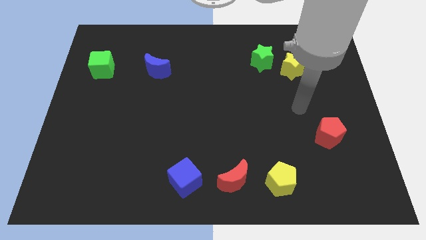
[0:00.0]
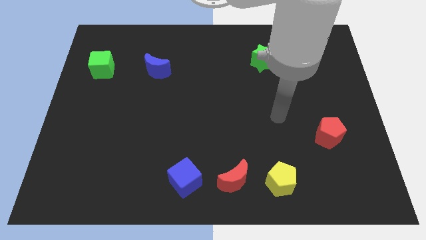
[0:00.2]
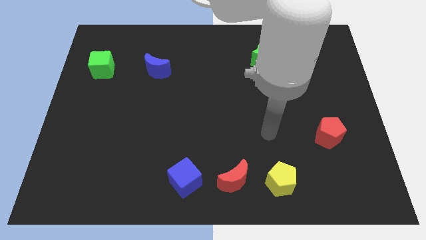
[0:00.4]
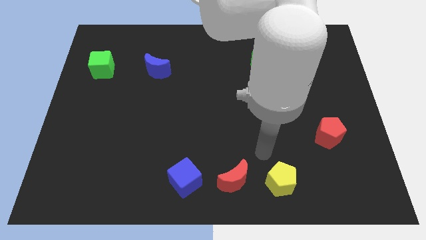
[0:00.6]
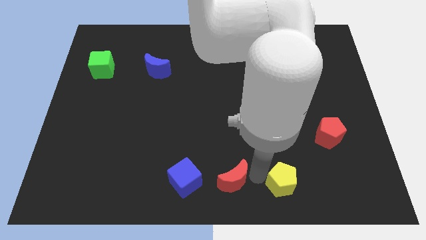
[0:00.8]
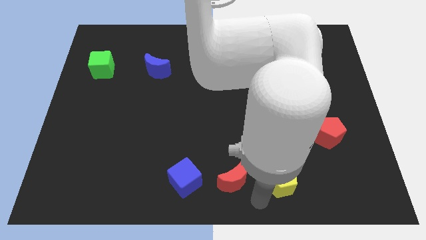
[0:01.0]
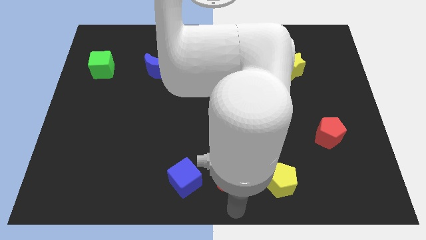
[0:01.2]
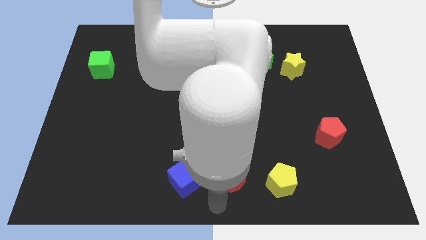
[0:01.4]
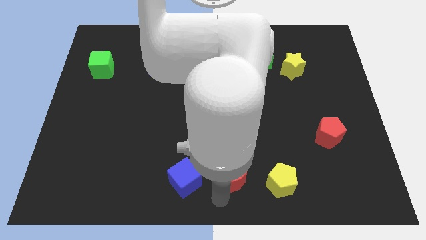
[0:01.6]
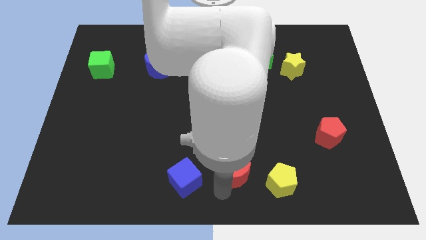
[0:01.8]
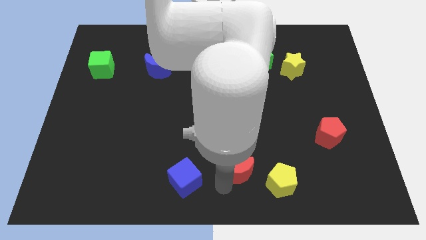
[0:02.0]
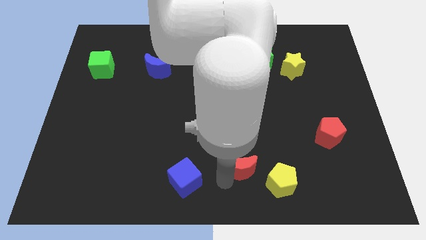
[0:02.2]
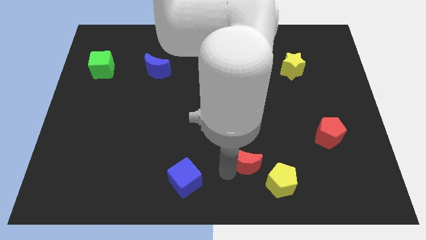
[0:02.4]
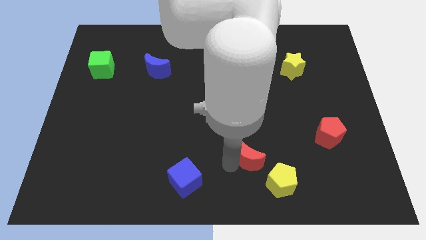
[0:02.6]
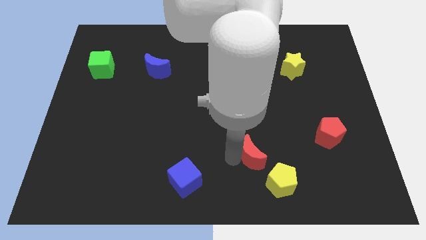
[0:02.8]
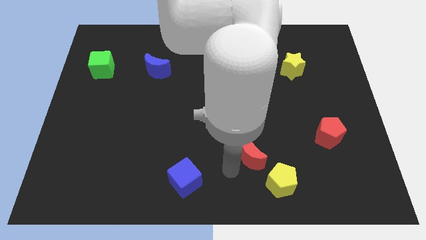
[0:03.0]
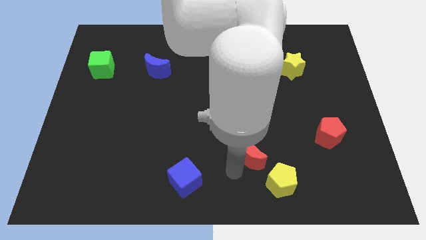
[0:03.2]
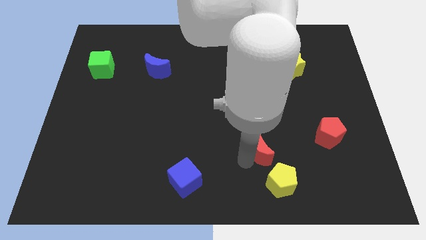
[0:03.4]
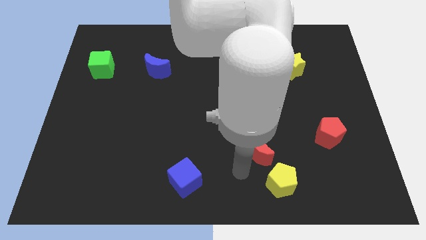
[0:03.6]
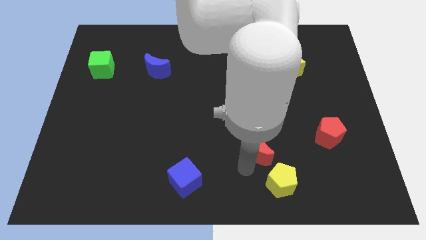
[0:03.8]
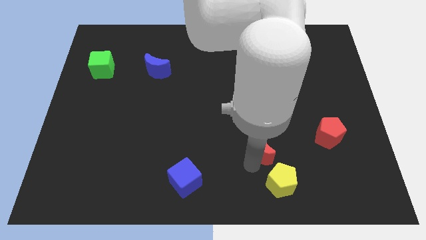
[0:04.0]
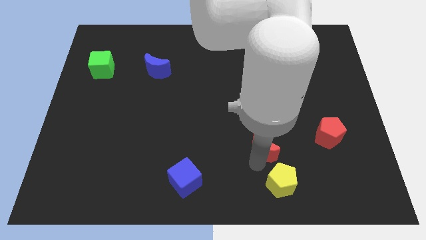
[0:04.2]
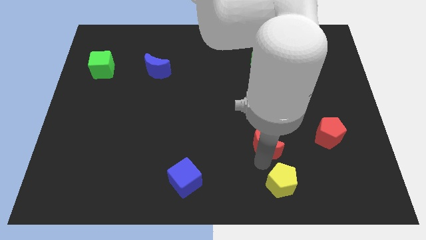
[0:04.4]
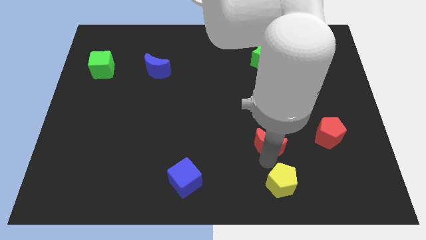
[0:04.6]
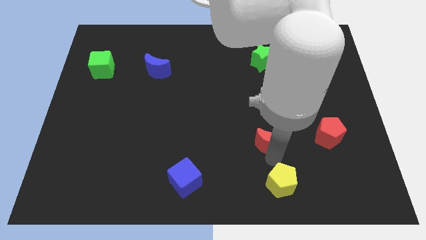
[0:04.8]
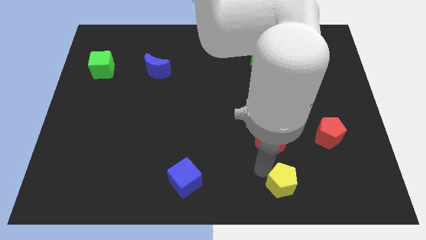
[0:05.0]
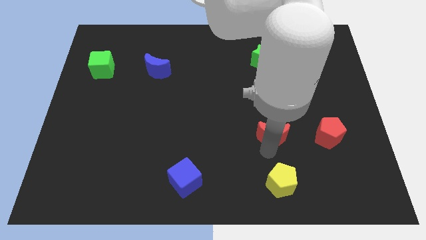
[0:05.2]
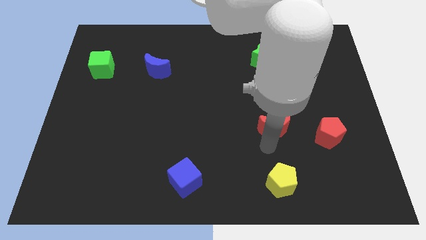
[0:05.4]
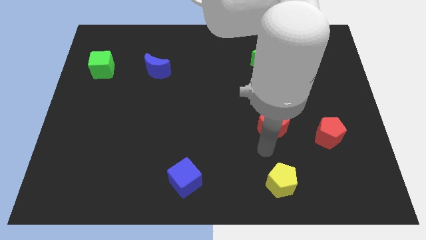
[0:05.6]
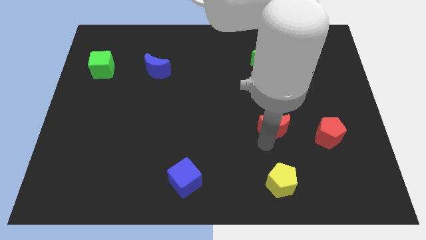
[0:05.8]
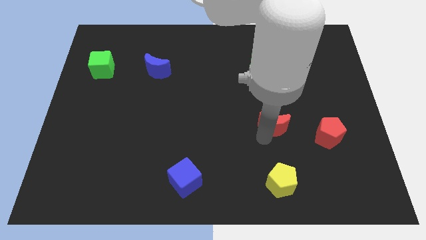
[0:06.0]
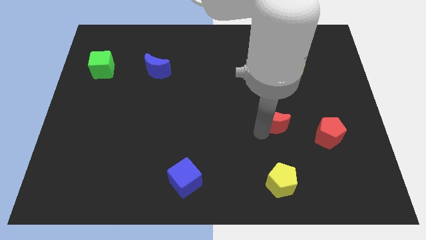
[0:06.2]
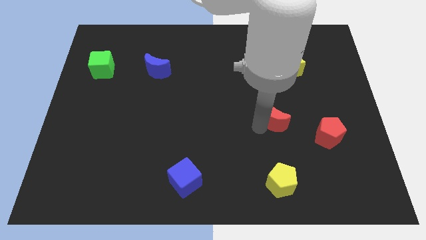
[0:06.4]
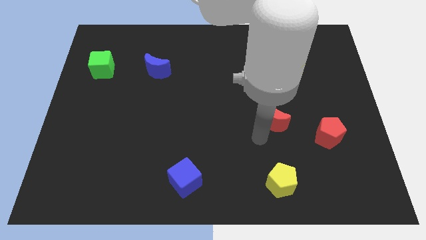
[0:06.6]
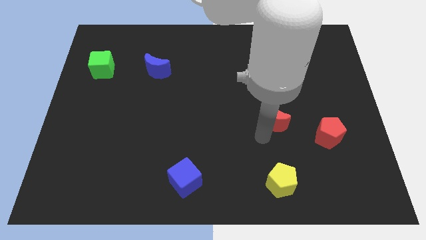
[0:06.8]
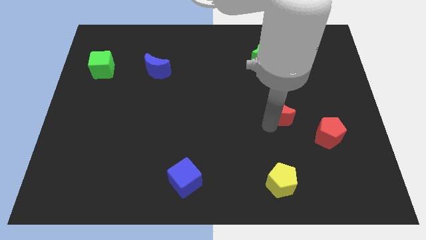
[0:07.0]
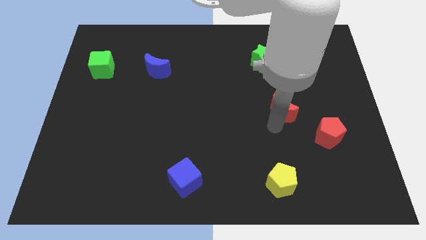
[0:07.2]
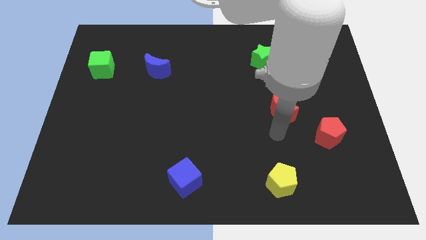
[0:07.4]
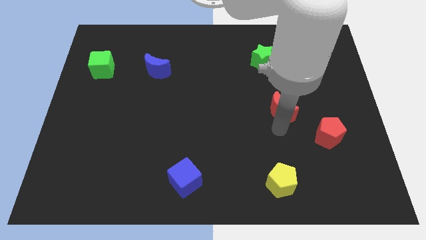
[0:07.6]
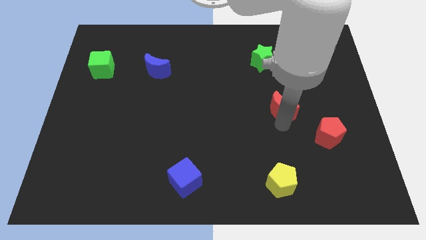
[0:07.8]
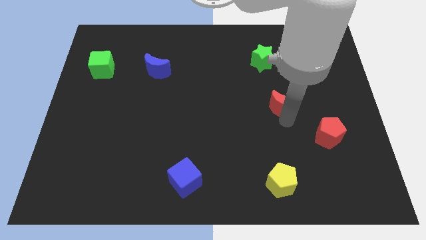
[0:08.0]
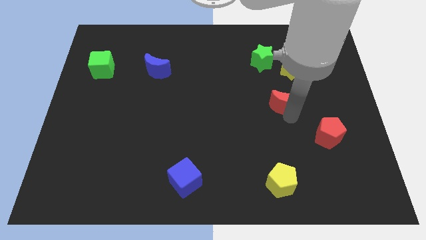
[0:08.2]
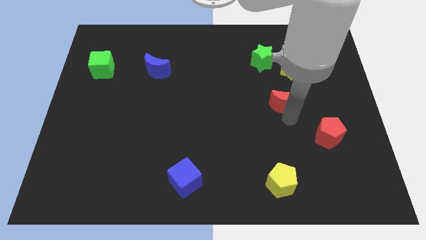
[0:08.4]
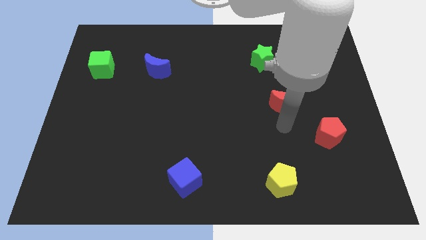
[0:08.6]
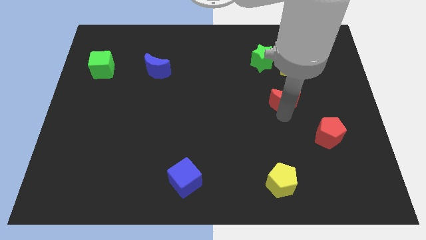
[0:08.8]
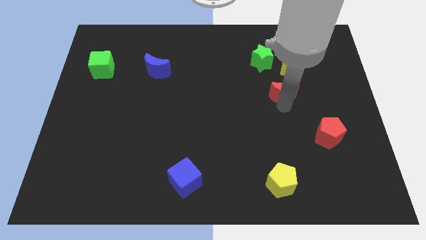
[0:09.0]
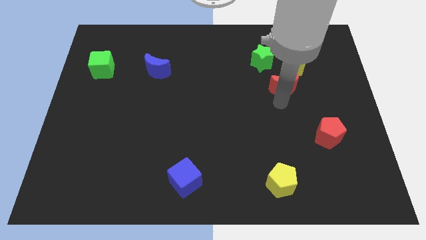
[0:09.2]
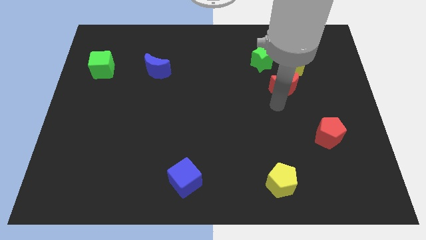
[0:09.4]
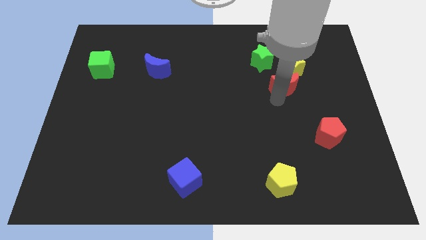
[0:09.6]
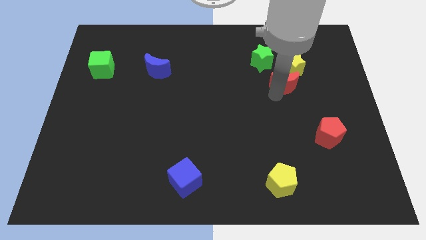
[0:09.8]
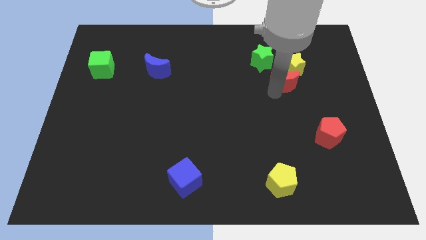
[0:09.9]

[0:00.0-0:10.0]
put the red moon close to the yellow star

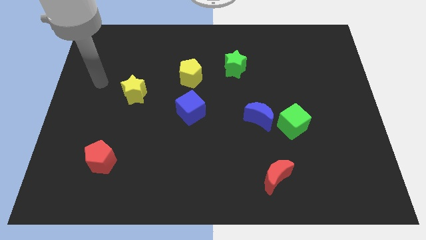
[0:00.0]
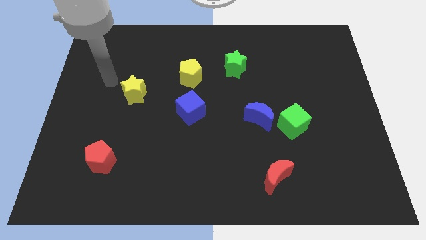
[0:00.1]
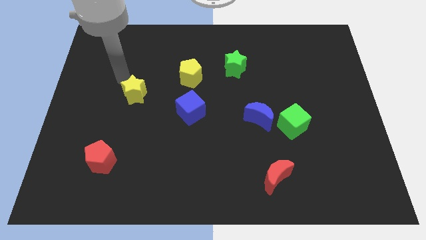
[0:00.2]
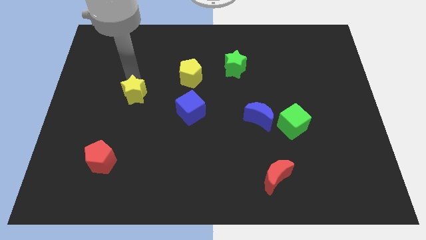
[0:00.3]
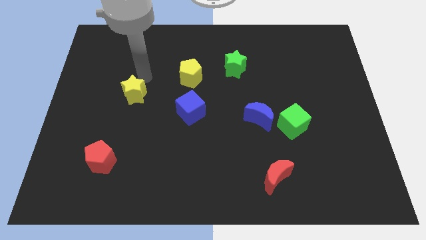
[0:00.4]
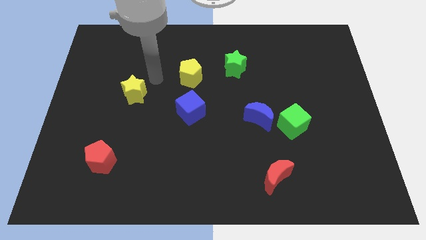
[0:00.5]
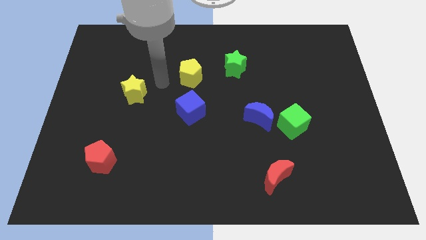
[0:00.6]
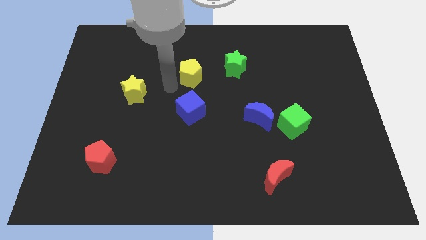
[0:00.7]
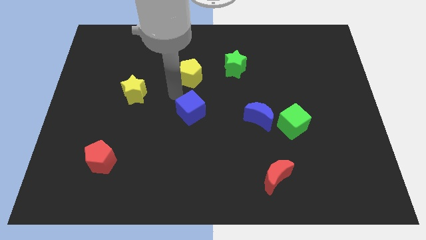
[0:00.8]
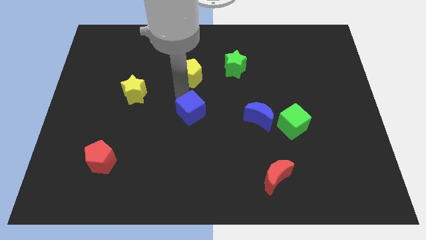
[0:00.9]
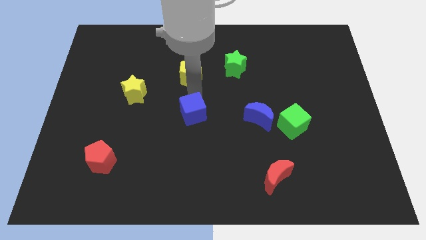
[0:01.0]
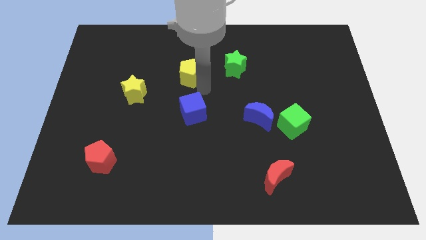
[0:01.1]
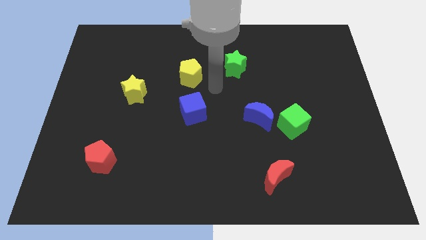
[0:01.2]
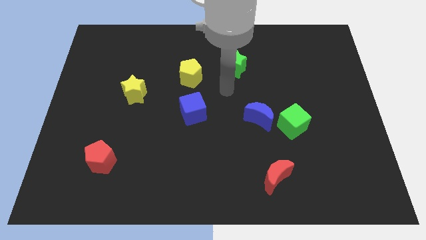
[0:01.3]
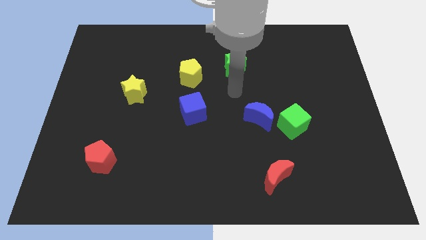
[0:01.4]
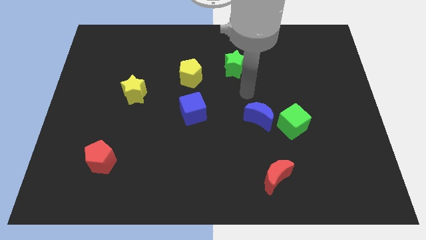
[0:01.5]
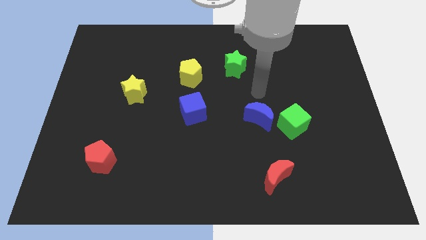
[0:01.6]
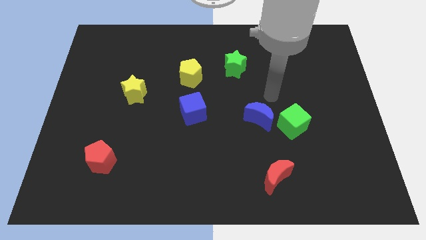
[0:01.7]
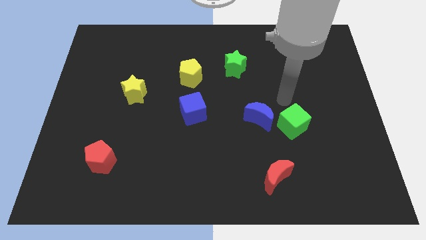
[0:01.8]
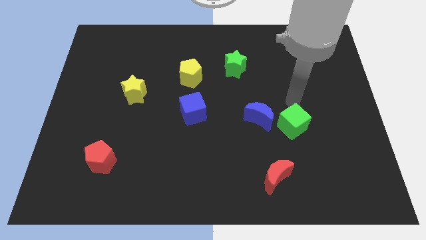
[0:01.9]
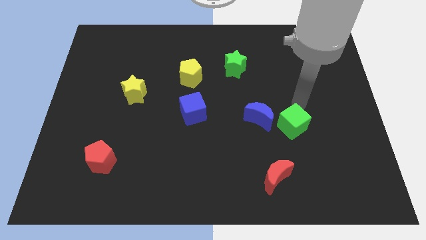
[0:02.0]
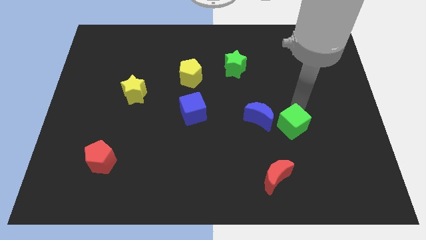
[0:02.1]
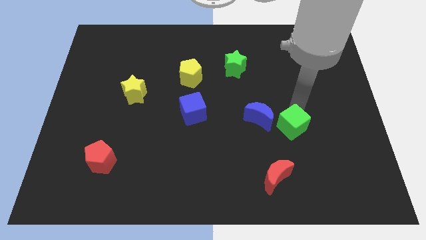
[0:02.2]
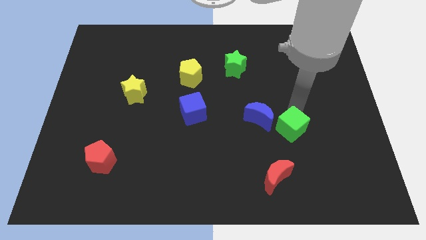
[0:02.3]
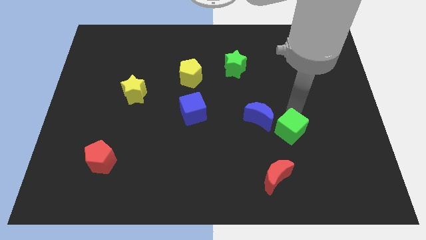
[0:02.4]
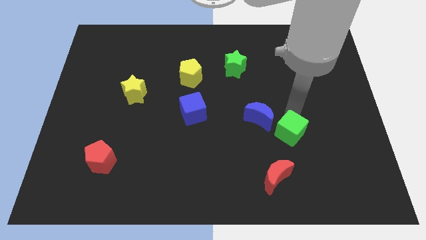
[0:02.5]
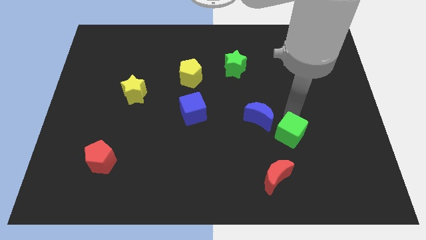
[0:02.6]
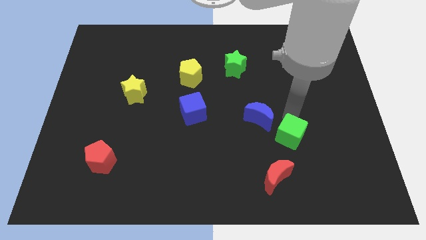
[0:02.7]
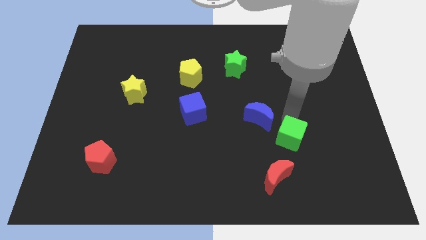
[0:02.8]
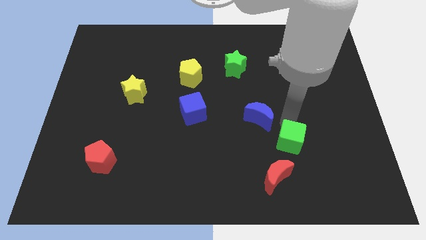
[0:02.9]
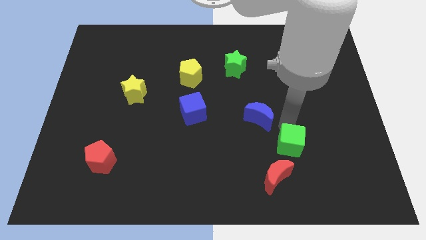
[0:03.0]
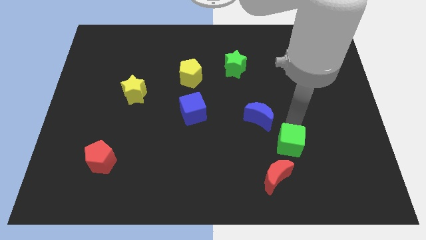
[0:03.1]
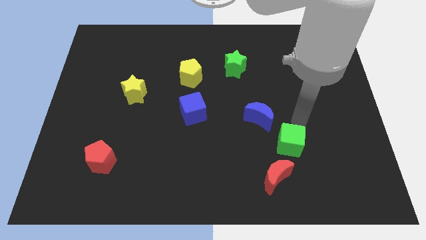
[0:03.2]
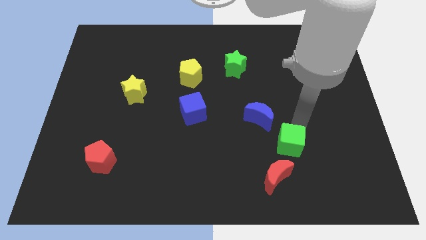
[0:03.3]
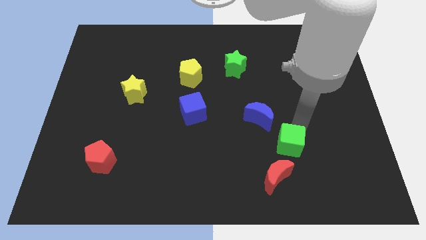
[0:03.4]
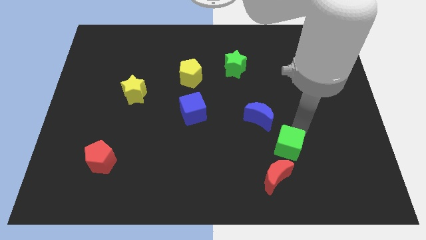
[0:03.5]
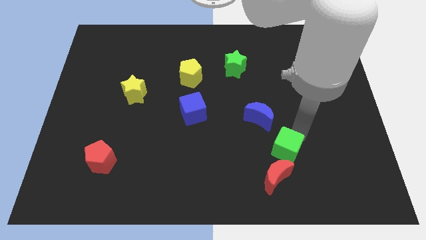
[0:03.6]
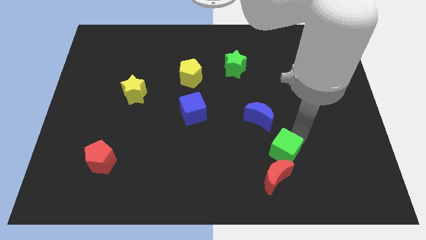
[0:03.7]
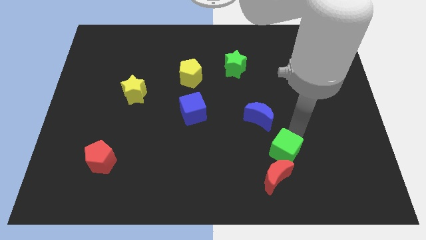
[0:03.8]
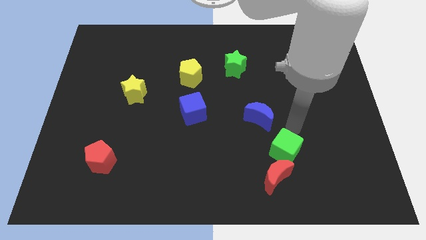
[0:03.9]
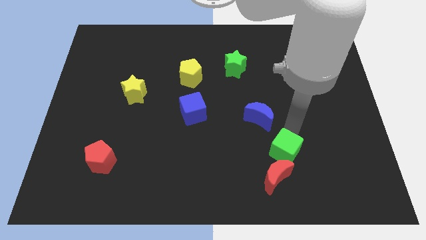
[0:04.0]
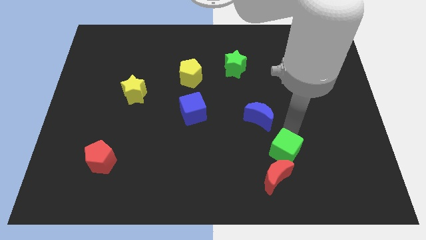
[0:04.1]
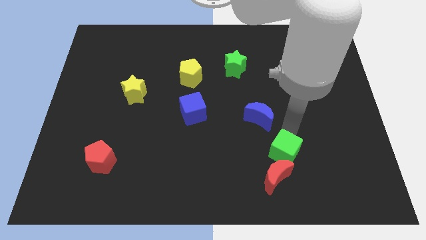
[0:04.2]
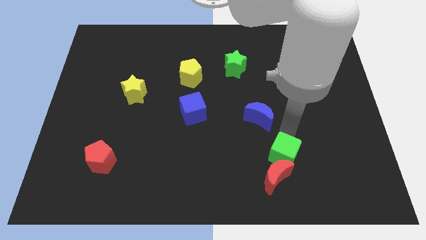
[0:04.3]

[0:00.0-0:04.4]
slide the green cube next to the red moon
